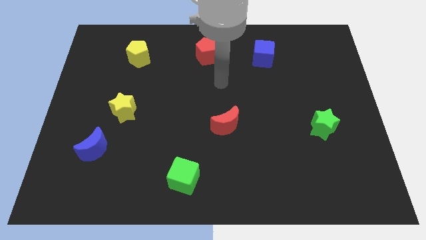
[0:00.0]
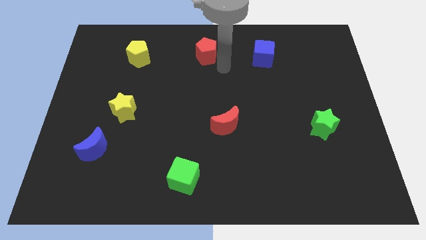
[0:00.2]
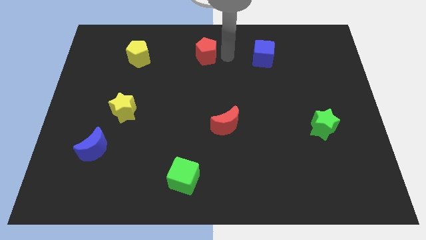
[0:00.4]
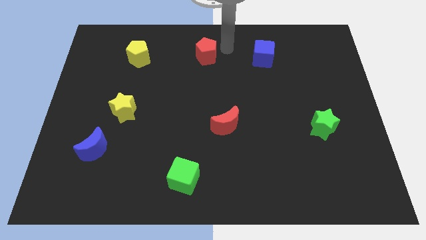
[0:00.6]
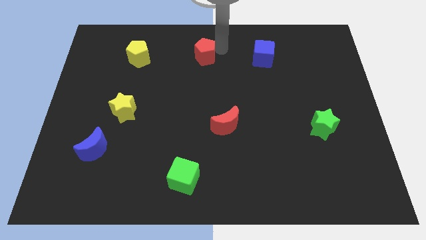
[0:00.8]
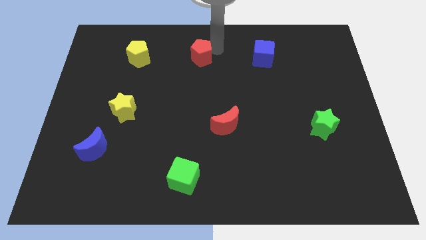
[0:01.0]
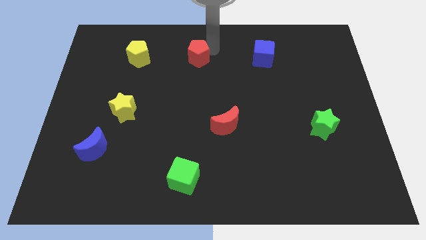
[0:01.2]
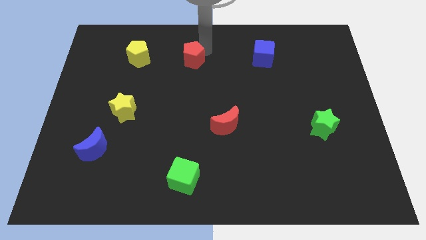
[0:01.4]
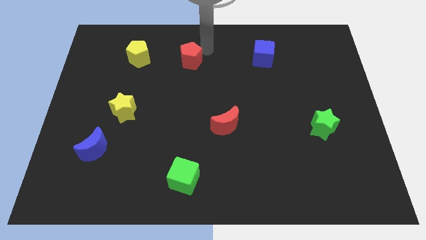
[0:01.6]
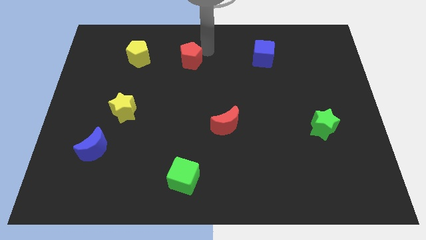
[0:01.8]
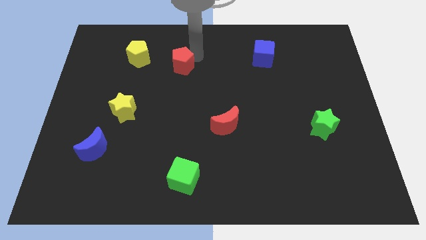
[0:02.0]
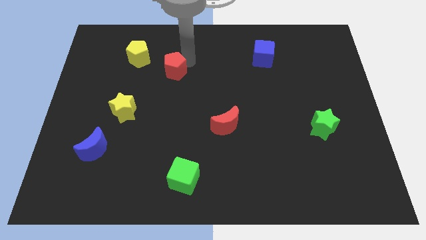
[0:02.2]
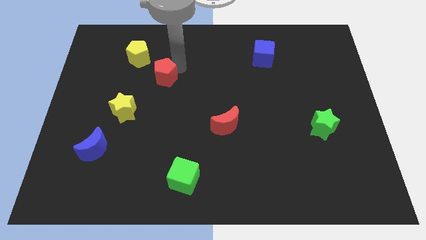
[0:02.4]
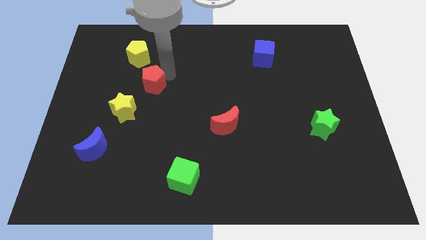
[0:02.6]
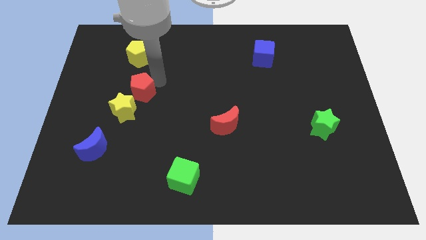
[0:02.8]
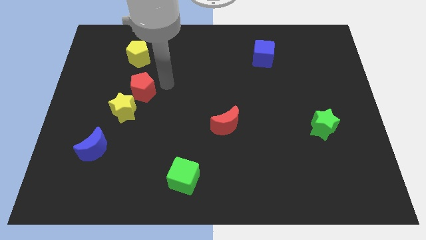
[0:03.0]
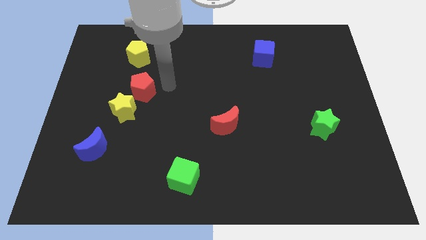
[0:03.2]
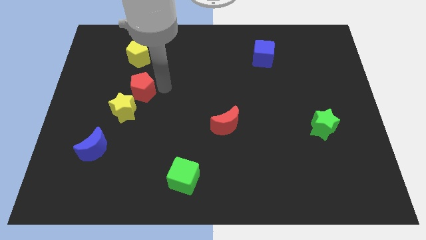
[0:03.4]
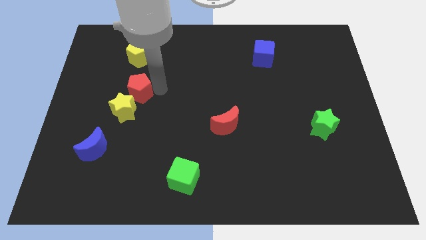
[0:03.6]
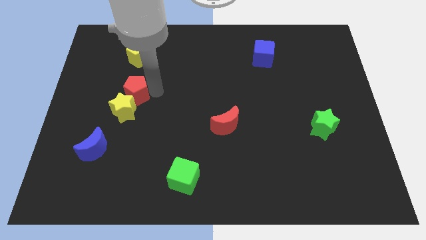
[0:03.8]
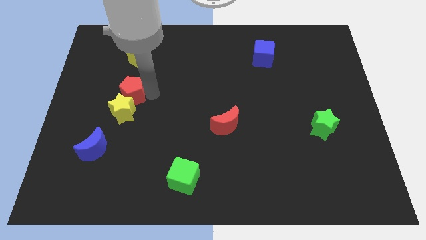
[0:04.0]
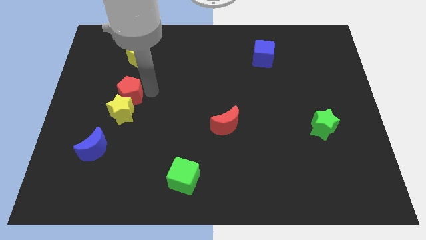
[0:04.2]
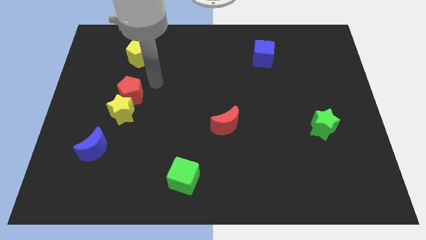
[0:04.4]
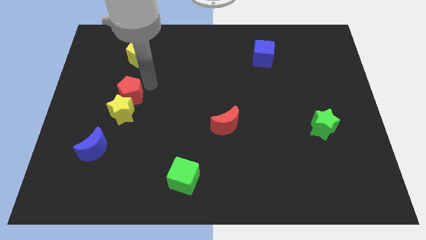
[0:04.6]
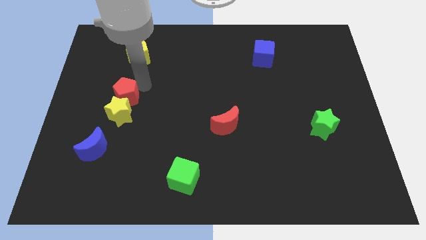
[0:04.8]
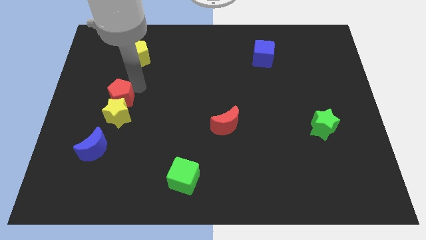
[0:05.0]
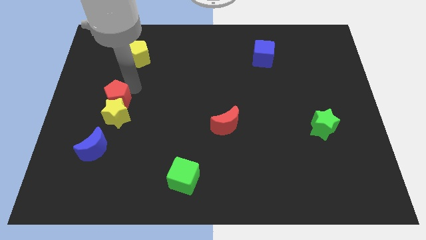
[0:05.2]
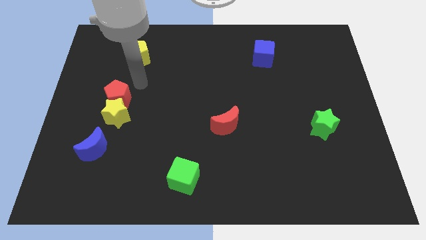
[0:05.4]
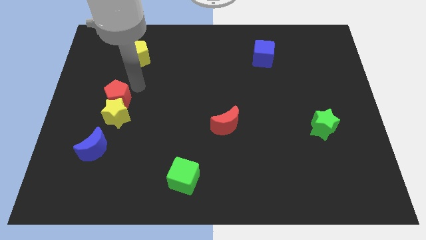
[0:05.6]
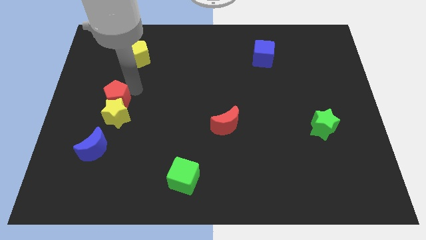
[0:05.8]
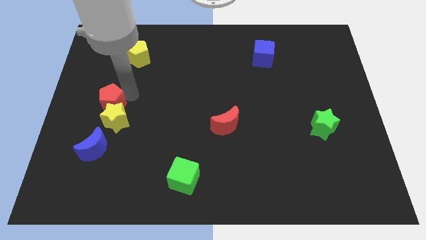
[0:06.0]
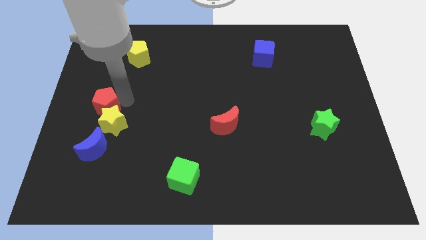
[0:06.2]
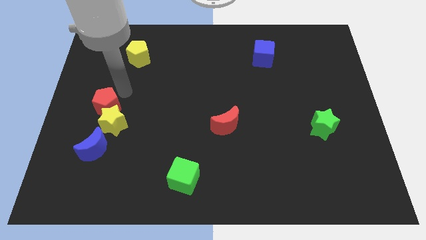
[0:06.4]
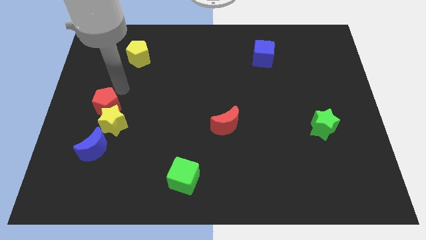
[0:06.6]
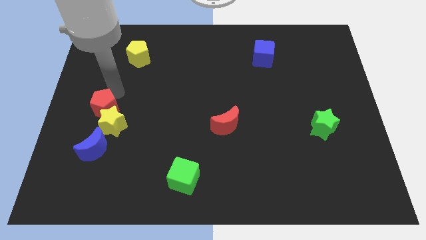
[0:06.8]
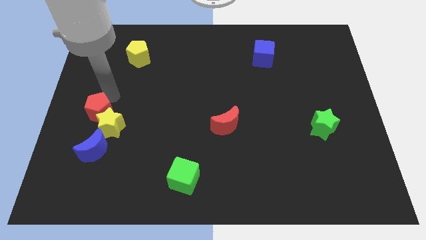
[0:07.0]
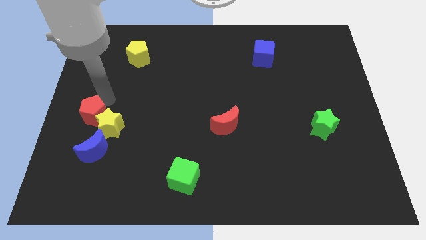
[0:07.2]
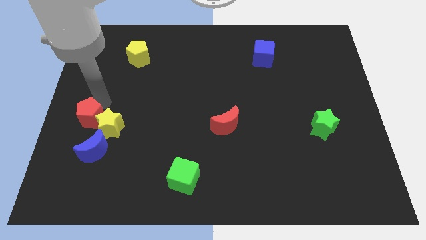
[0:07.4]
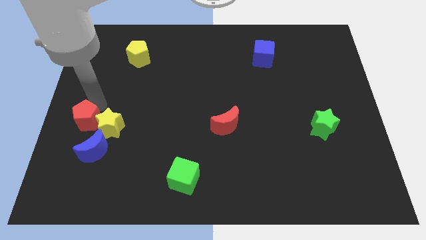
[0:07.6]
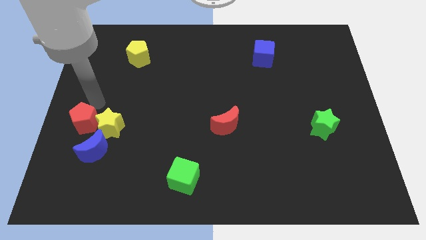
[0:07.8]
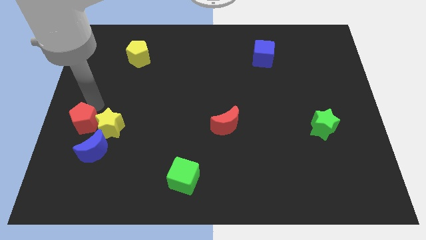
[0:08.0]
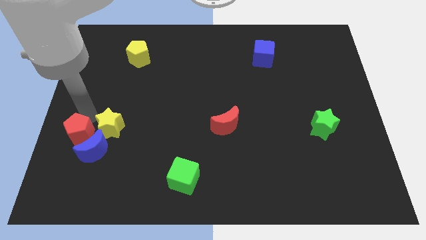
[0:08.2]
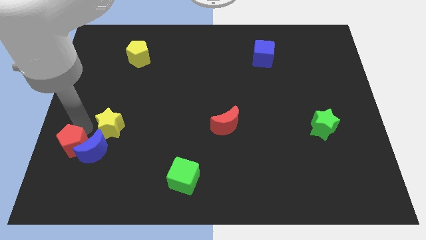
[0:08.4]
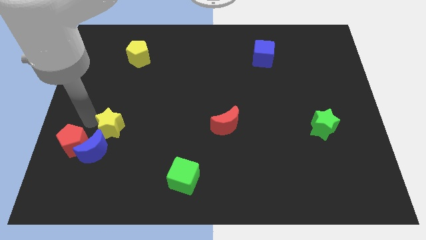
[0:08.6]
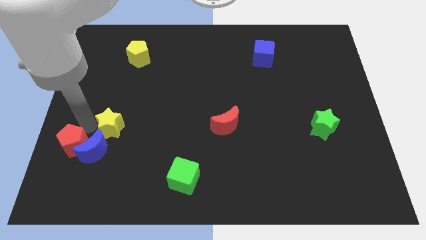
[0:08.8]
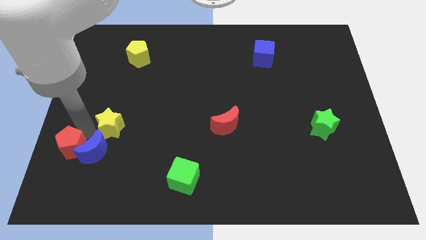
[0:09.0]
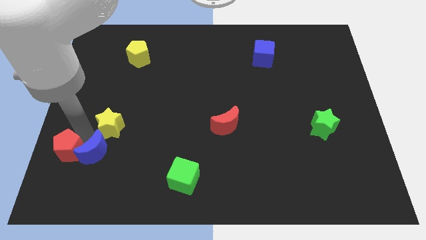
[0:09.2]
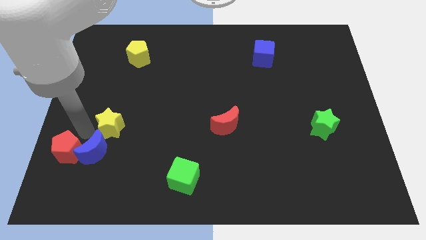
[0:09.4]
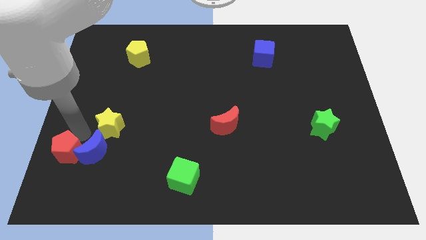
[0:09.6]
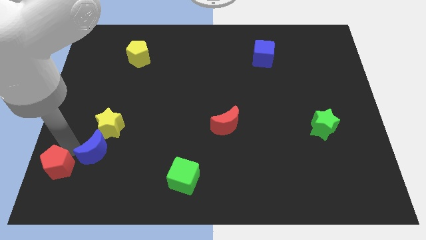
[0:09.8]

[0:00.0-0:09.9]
put the red pentagon to the bottom left of the board

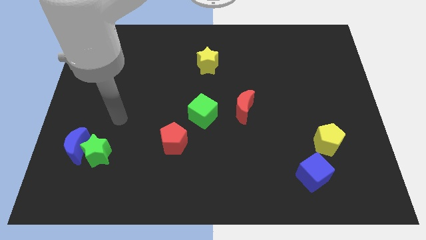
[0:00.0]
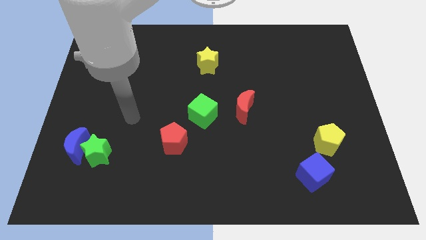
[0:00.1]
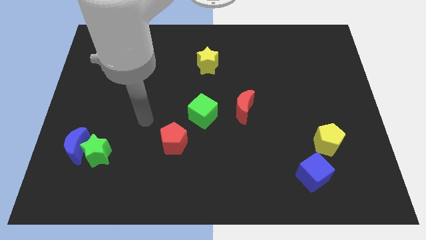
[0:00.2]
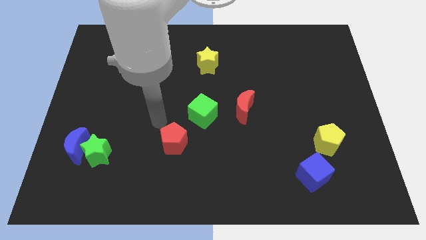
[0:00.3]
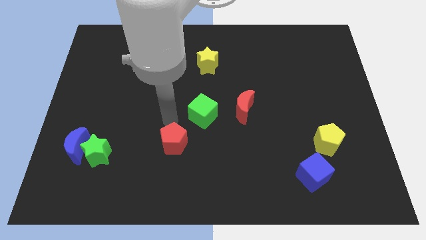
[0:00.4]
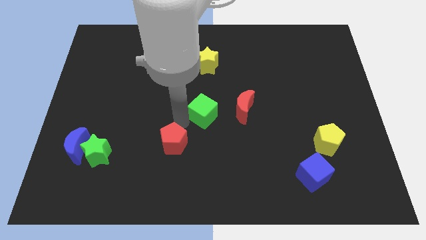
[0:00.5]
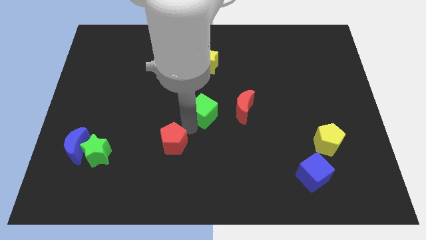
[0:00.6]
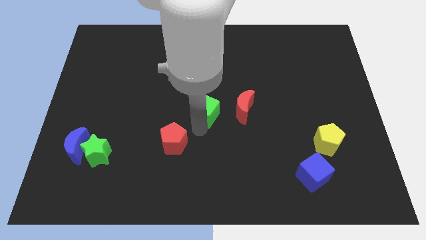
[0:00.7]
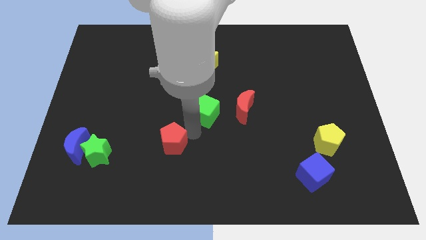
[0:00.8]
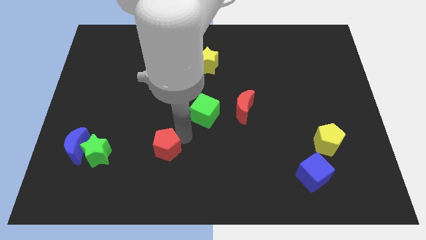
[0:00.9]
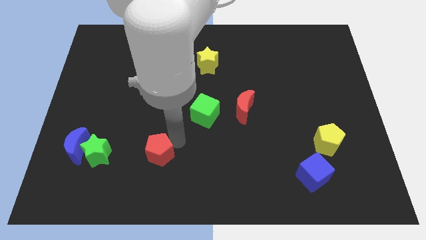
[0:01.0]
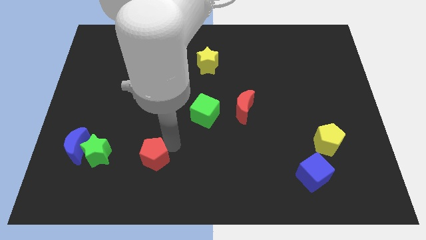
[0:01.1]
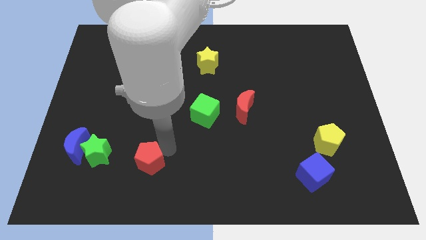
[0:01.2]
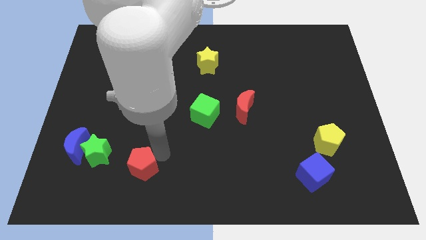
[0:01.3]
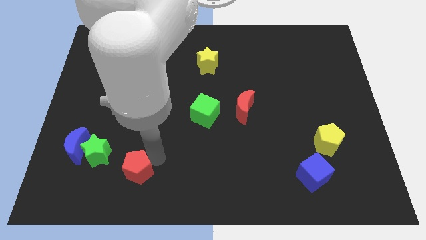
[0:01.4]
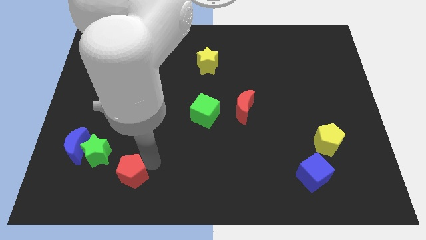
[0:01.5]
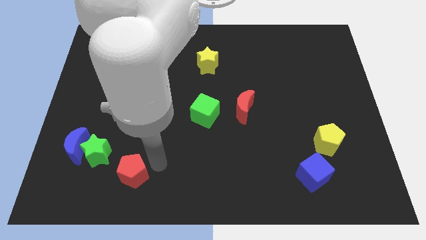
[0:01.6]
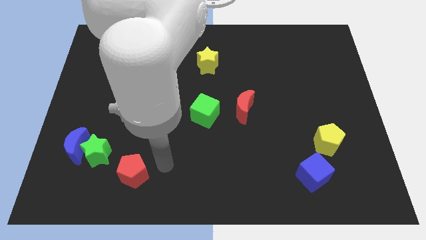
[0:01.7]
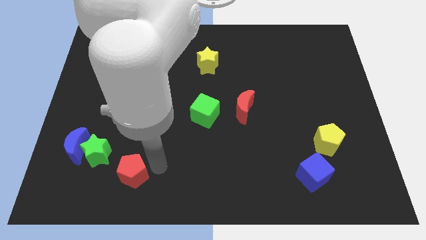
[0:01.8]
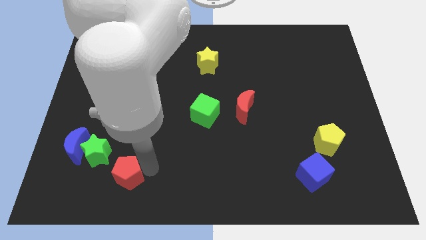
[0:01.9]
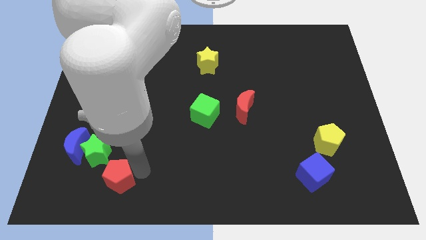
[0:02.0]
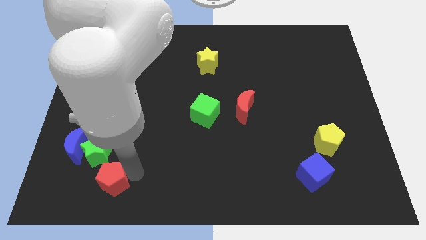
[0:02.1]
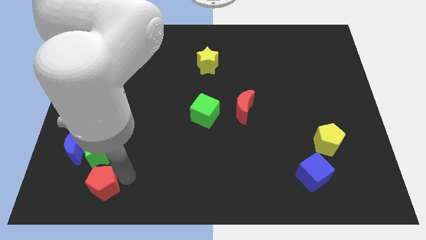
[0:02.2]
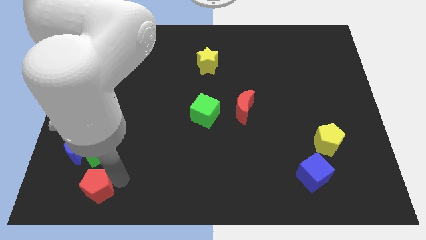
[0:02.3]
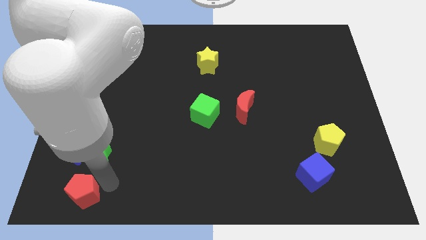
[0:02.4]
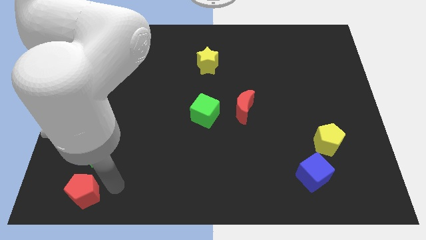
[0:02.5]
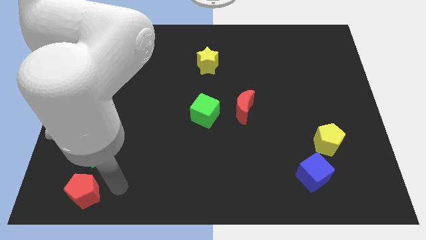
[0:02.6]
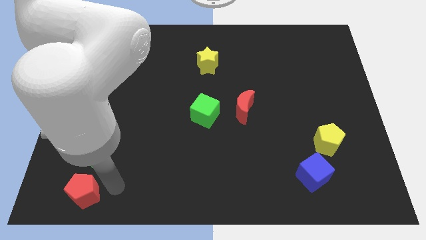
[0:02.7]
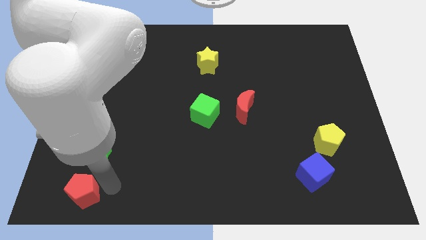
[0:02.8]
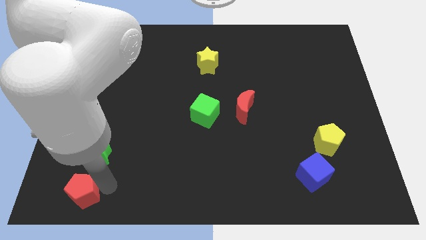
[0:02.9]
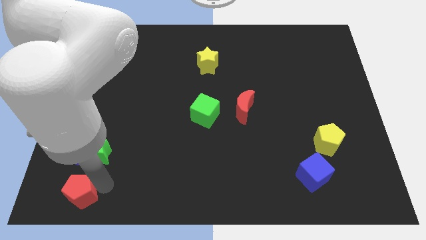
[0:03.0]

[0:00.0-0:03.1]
push the red pentagon to the lower left corner
